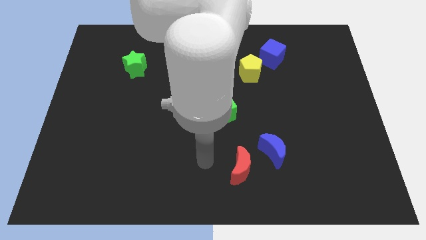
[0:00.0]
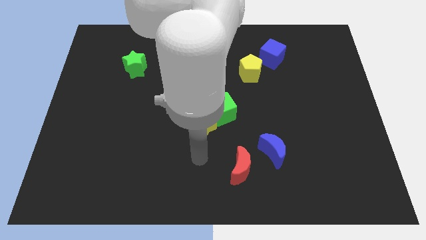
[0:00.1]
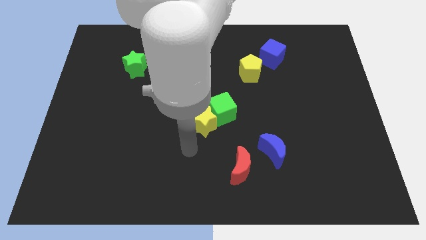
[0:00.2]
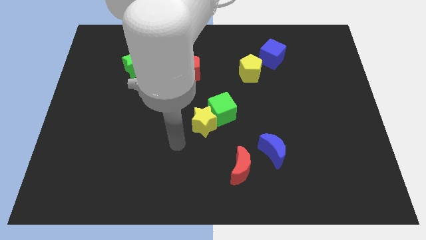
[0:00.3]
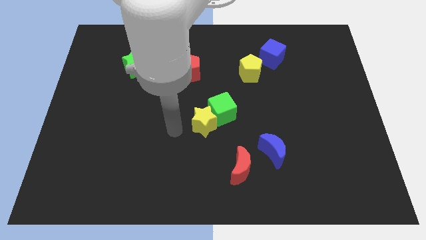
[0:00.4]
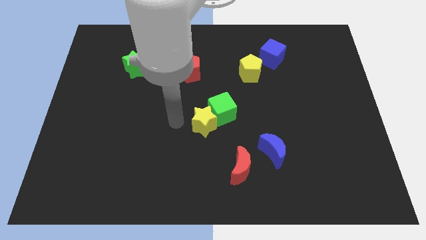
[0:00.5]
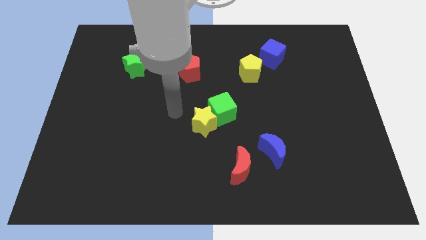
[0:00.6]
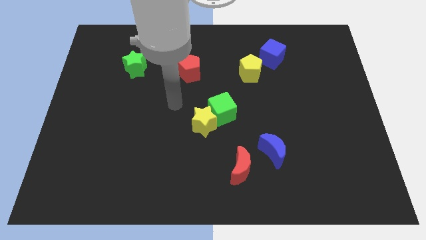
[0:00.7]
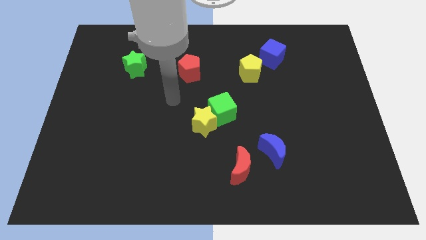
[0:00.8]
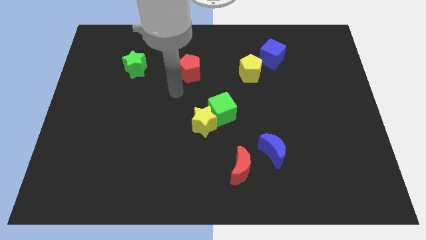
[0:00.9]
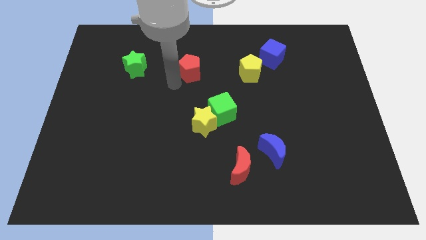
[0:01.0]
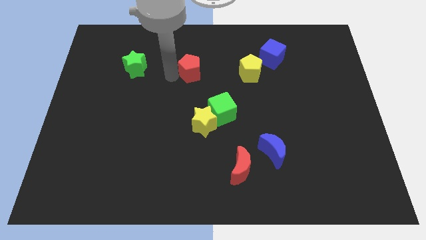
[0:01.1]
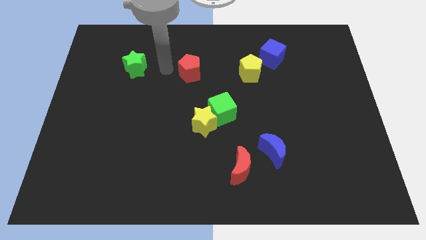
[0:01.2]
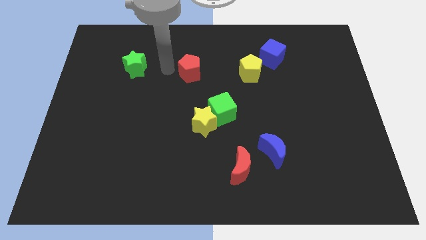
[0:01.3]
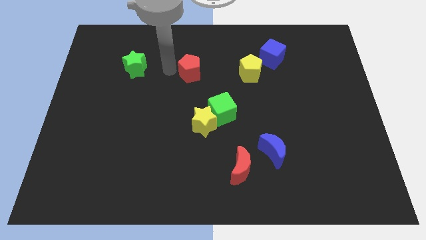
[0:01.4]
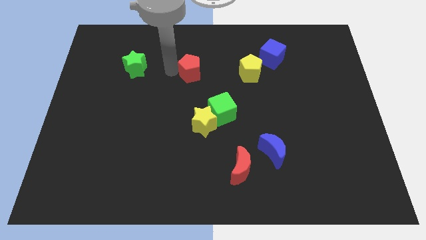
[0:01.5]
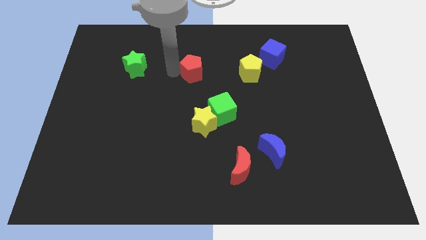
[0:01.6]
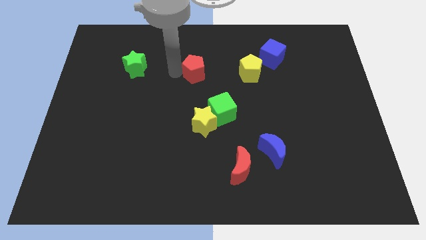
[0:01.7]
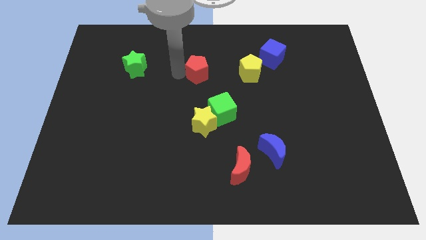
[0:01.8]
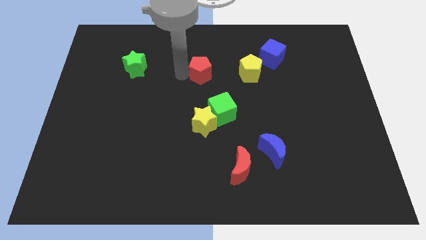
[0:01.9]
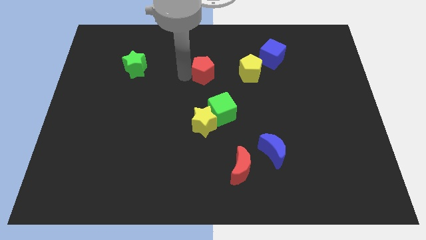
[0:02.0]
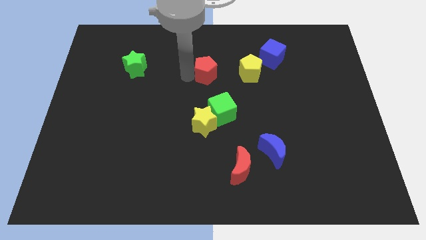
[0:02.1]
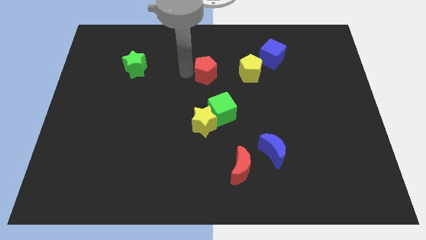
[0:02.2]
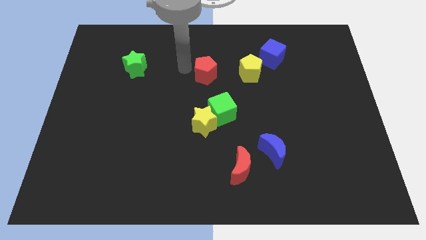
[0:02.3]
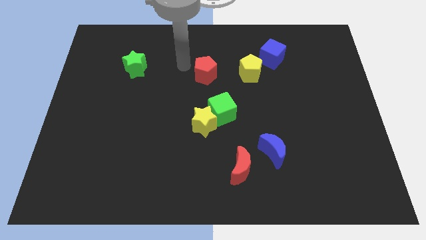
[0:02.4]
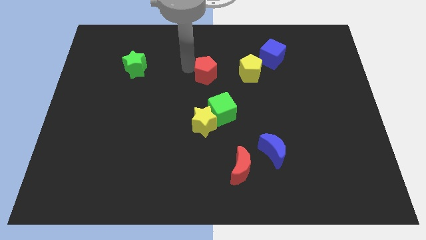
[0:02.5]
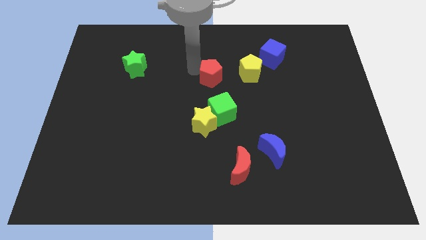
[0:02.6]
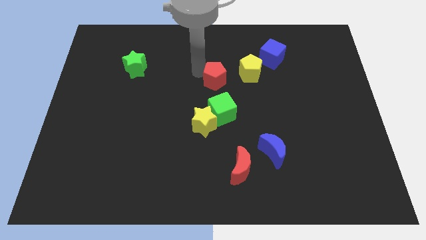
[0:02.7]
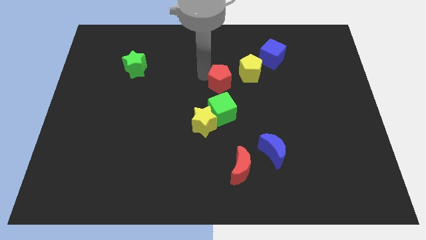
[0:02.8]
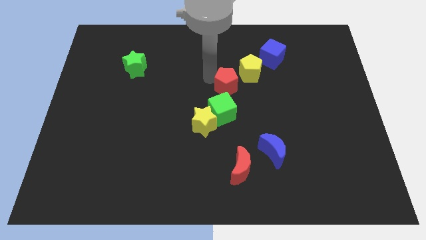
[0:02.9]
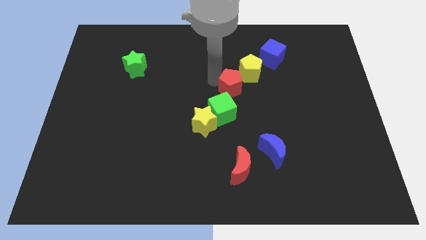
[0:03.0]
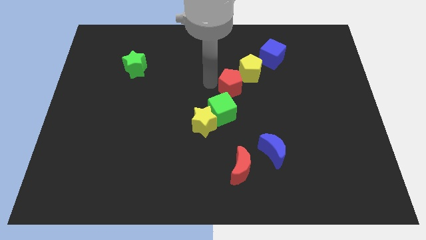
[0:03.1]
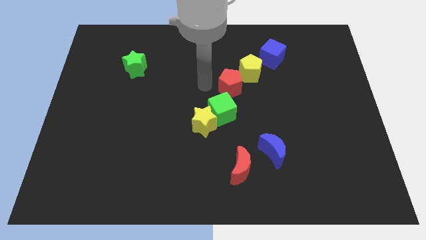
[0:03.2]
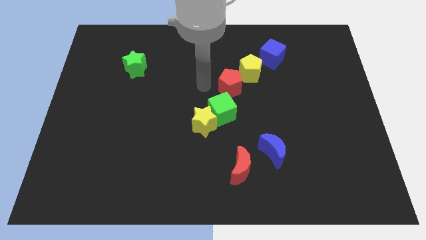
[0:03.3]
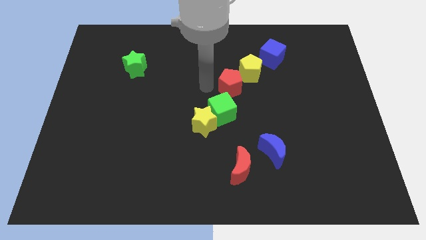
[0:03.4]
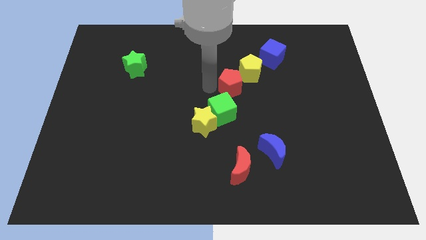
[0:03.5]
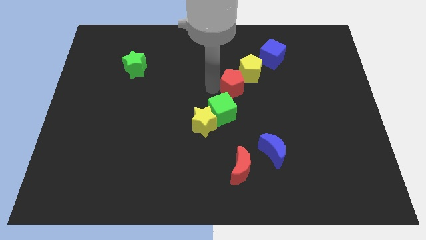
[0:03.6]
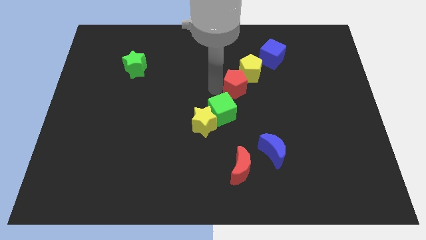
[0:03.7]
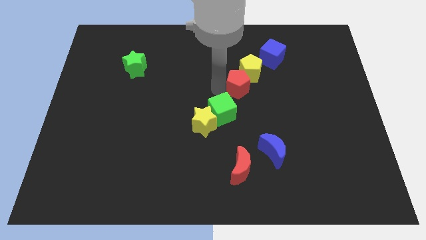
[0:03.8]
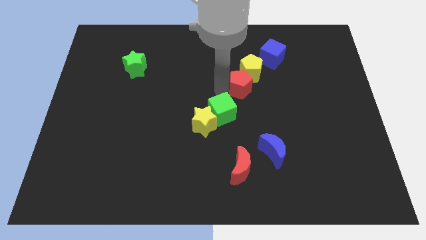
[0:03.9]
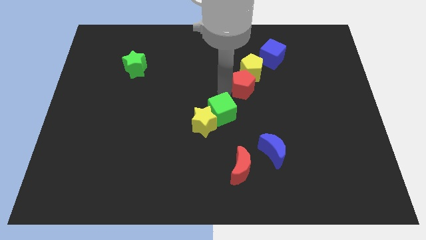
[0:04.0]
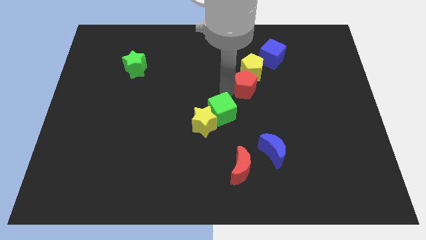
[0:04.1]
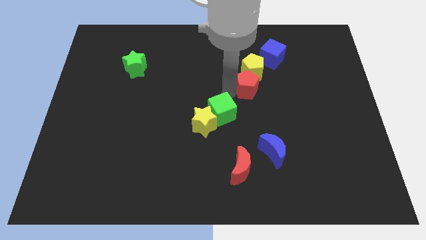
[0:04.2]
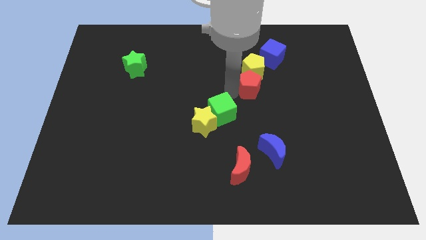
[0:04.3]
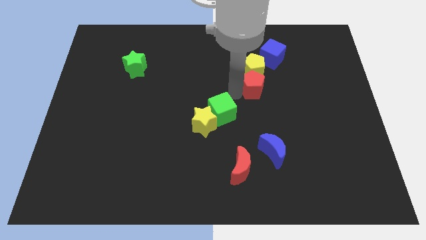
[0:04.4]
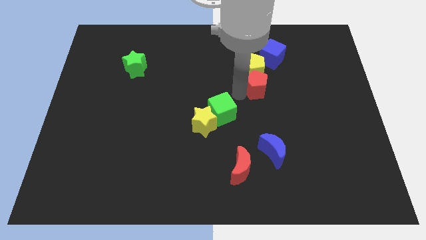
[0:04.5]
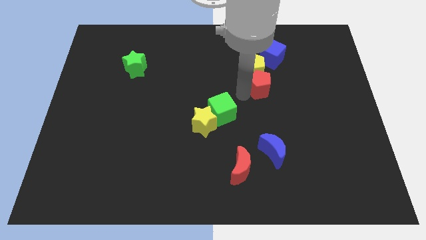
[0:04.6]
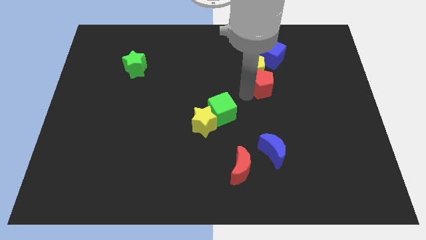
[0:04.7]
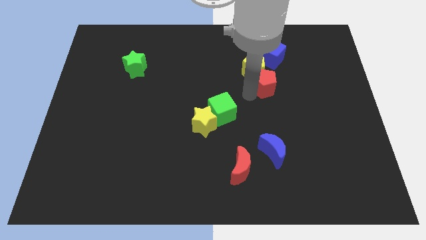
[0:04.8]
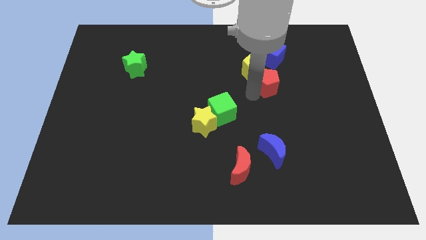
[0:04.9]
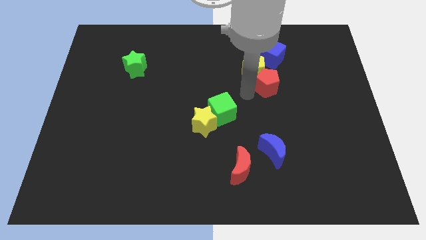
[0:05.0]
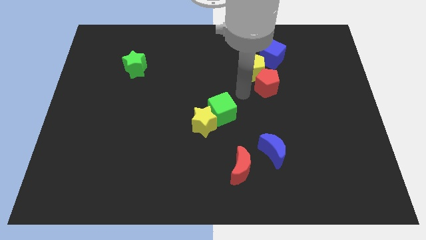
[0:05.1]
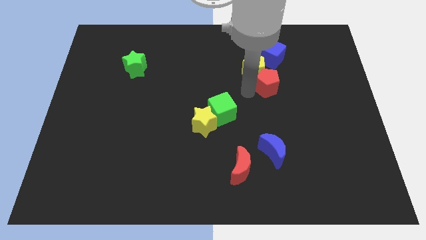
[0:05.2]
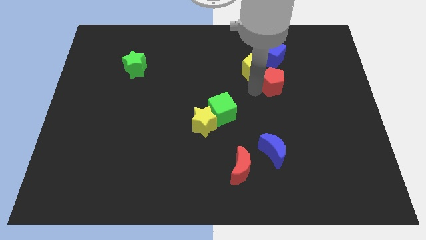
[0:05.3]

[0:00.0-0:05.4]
slide the red pentagon right

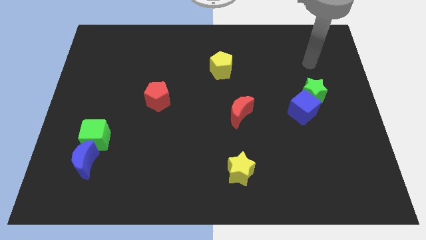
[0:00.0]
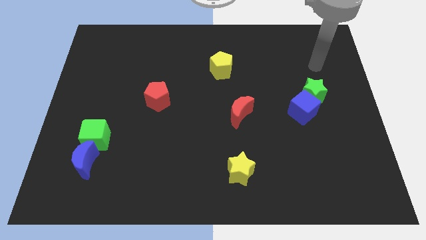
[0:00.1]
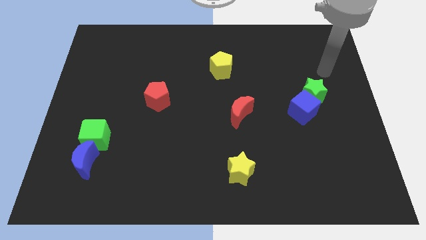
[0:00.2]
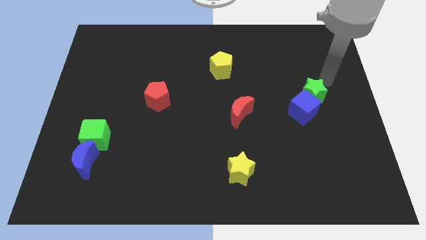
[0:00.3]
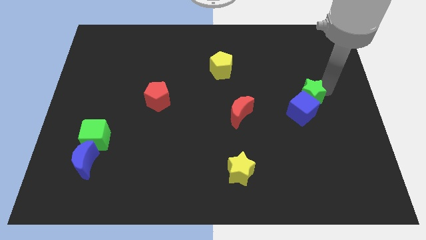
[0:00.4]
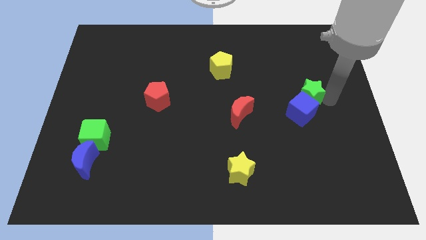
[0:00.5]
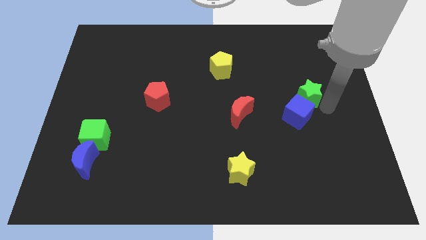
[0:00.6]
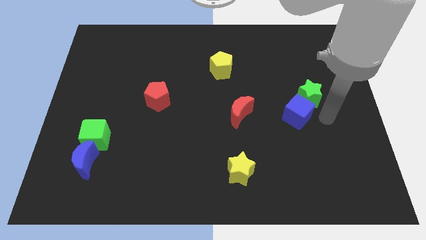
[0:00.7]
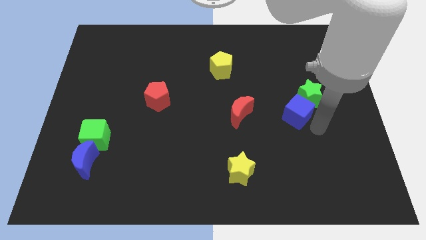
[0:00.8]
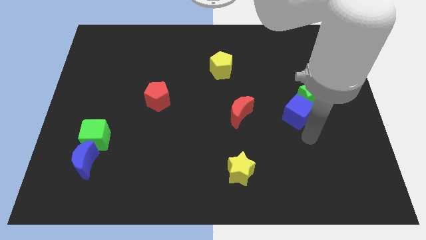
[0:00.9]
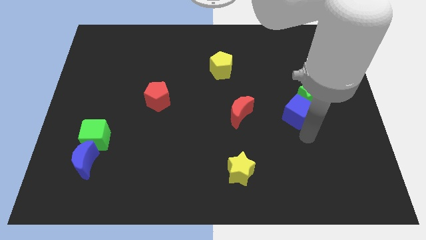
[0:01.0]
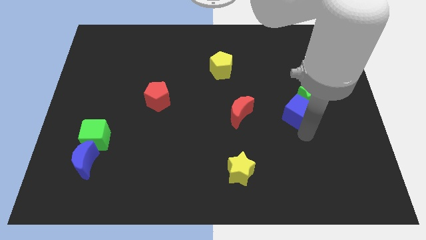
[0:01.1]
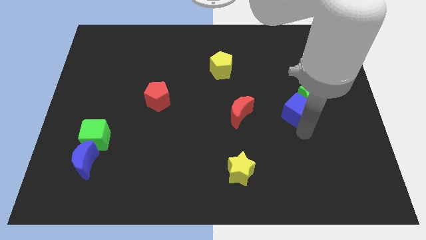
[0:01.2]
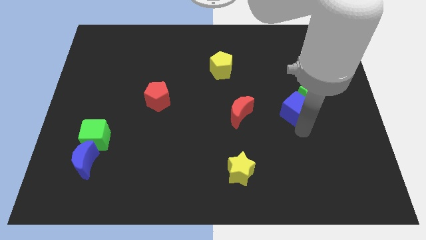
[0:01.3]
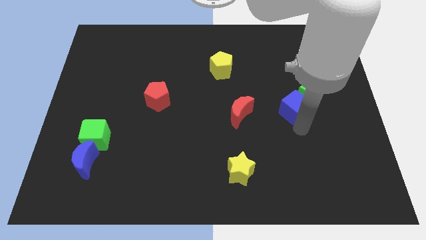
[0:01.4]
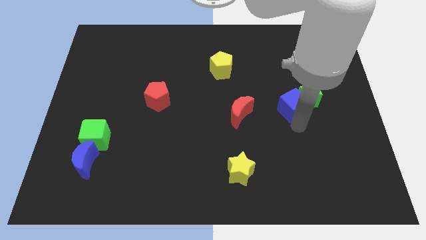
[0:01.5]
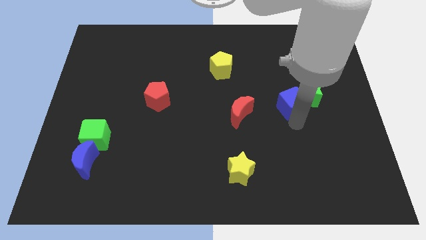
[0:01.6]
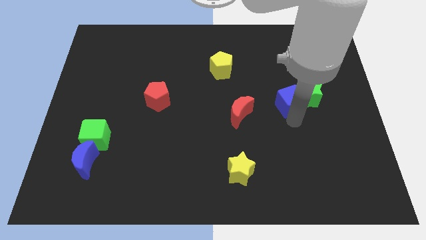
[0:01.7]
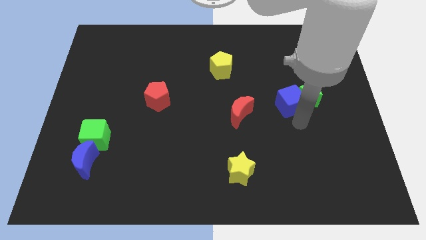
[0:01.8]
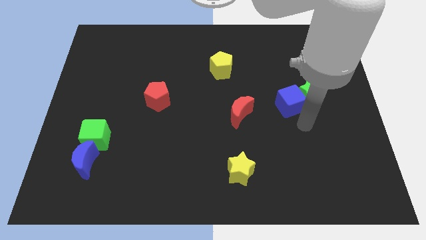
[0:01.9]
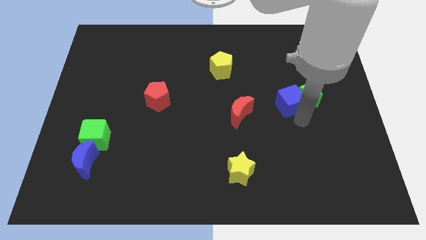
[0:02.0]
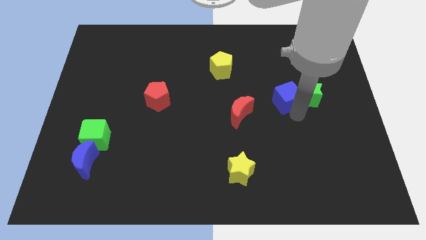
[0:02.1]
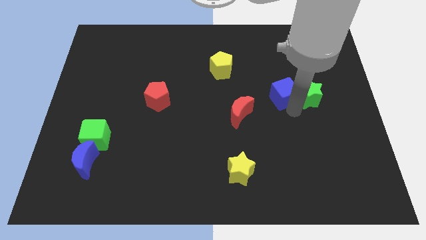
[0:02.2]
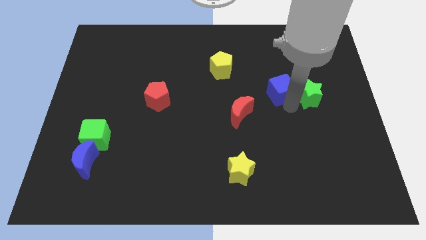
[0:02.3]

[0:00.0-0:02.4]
push the blue cube a bit up and left

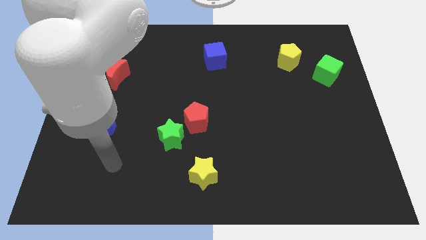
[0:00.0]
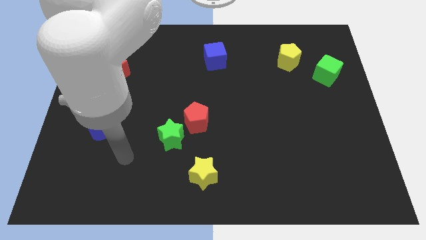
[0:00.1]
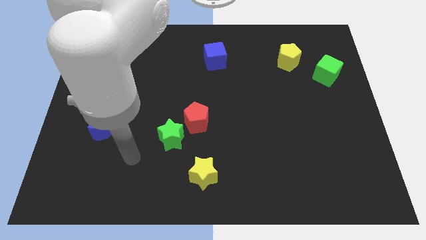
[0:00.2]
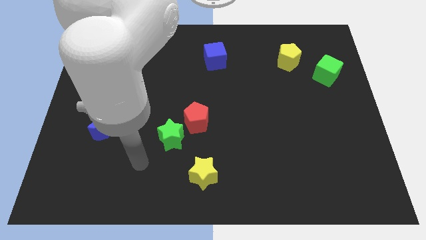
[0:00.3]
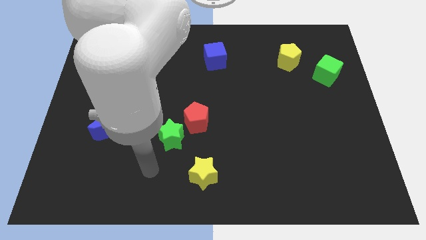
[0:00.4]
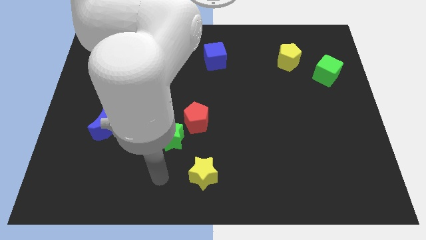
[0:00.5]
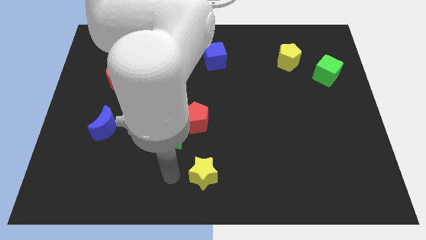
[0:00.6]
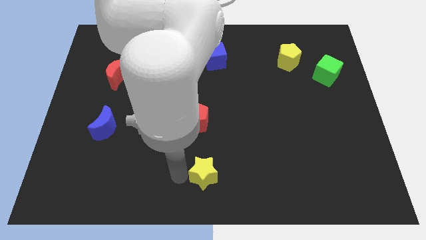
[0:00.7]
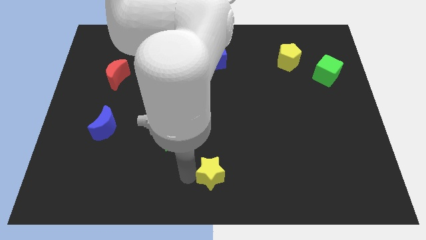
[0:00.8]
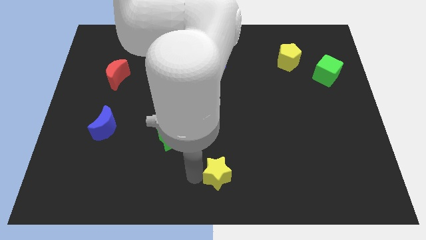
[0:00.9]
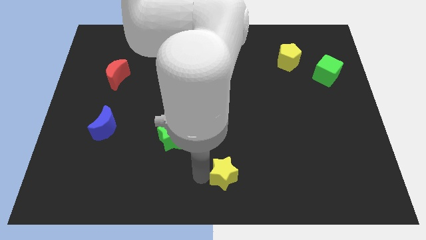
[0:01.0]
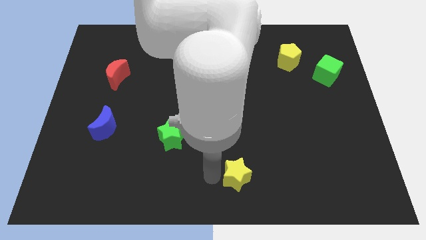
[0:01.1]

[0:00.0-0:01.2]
push the yellow star a little to the right
